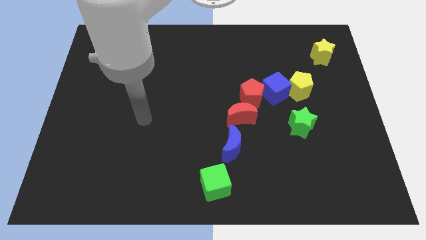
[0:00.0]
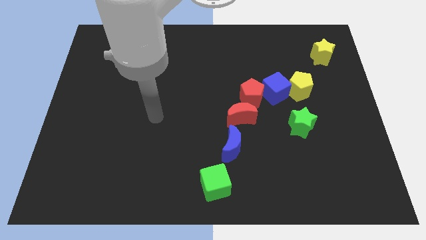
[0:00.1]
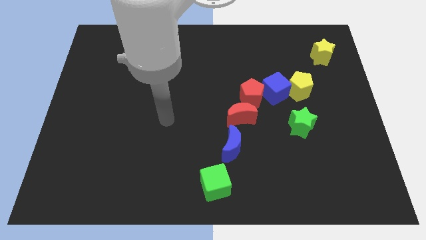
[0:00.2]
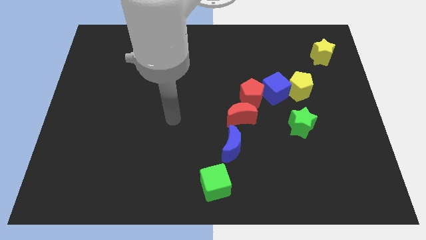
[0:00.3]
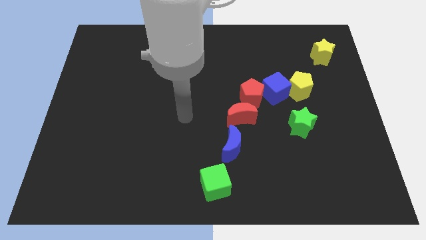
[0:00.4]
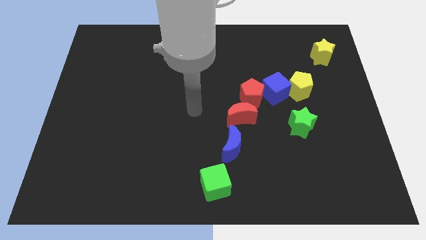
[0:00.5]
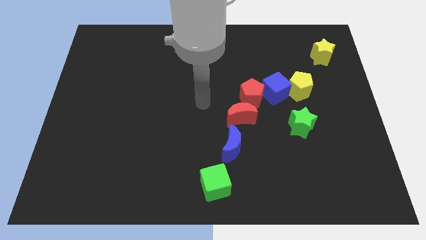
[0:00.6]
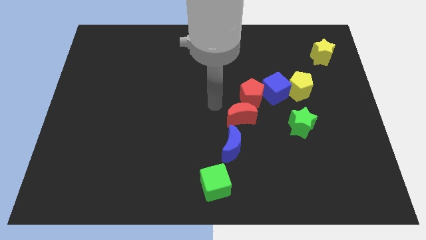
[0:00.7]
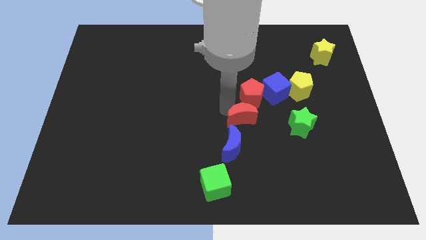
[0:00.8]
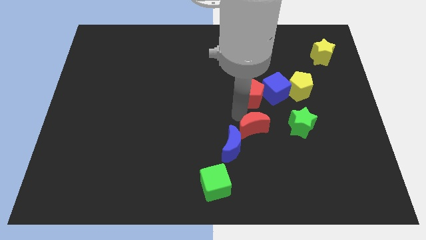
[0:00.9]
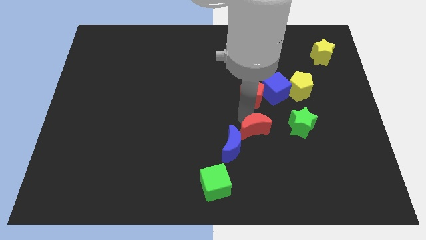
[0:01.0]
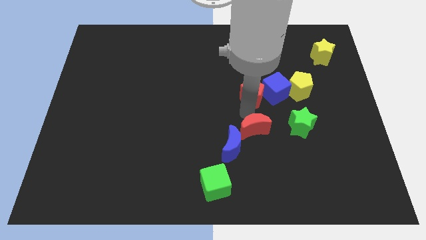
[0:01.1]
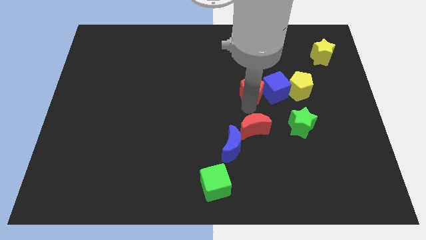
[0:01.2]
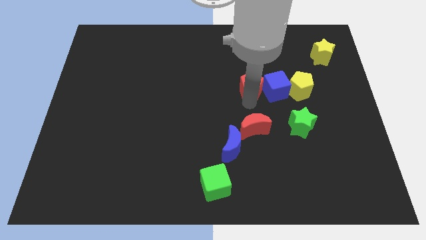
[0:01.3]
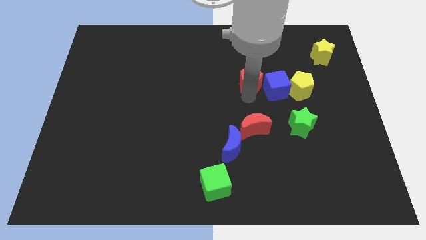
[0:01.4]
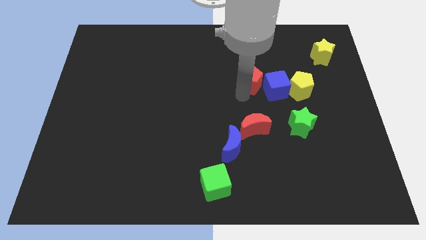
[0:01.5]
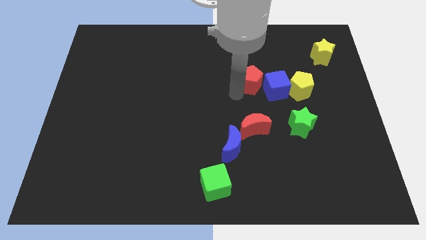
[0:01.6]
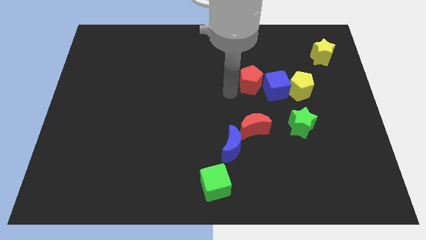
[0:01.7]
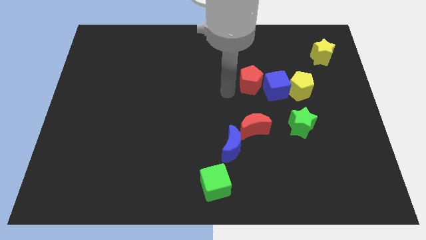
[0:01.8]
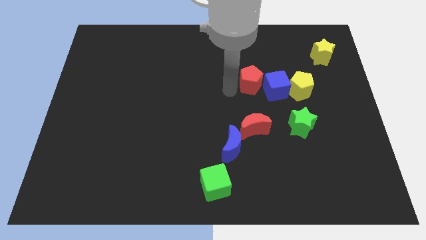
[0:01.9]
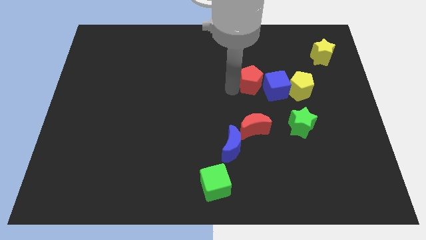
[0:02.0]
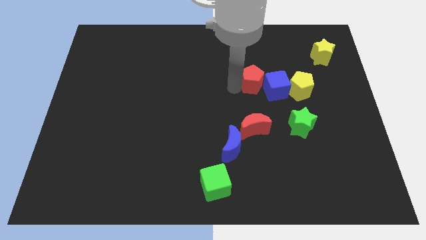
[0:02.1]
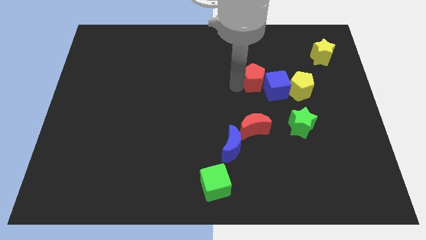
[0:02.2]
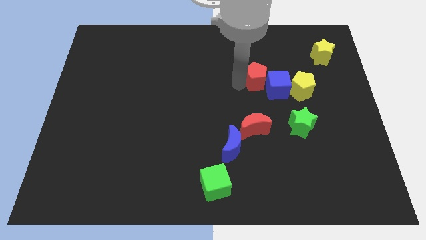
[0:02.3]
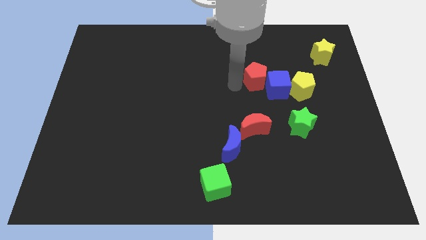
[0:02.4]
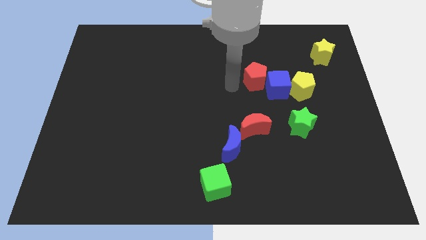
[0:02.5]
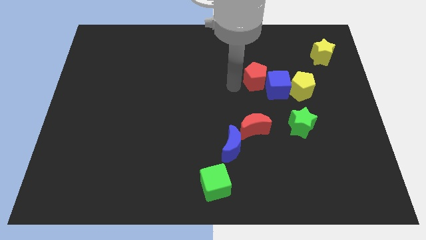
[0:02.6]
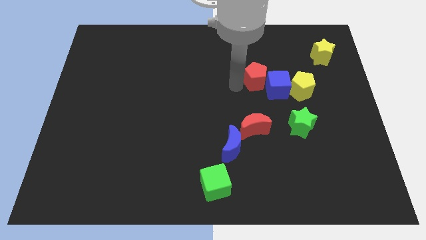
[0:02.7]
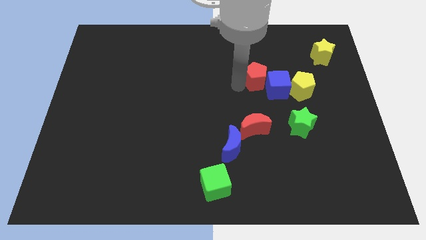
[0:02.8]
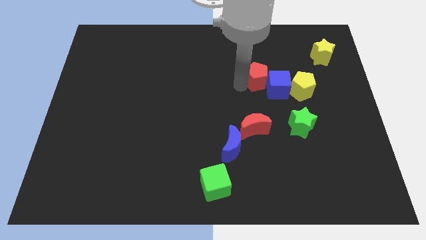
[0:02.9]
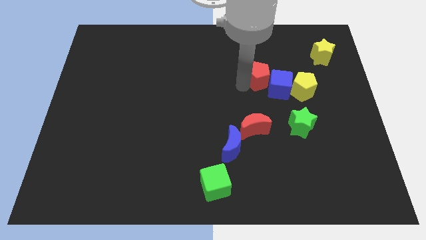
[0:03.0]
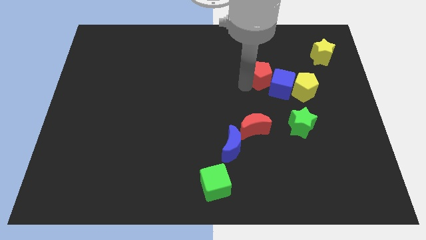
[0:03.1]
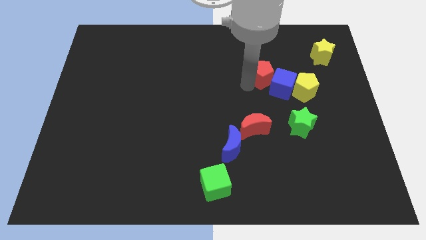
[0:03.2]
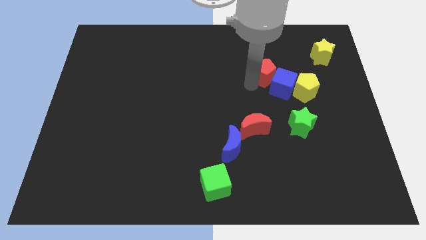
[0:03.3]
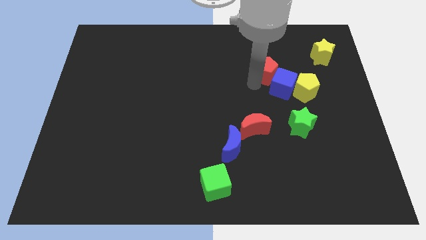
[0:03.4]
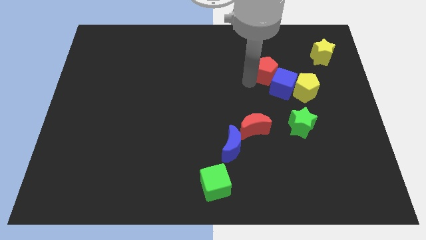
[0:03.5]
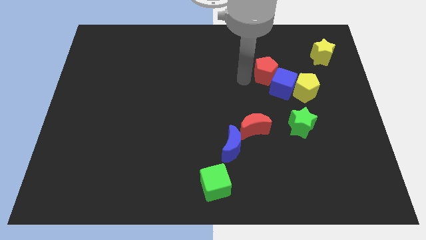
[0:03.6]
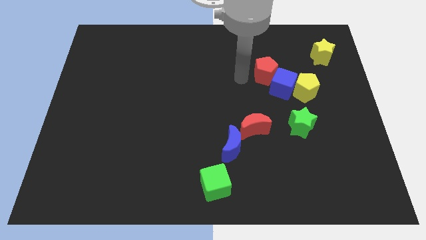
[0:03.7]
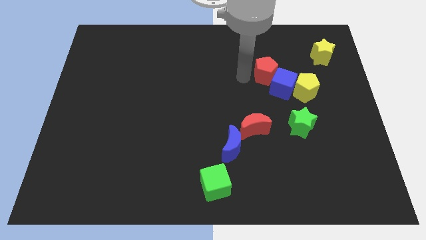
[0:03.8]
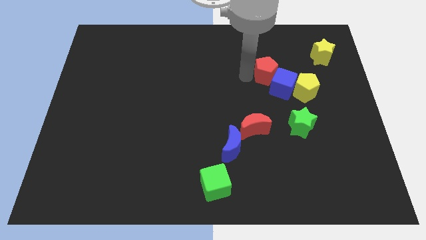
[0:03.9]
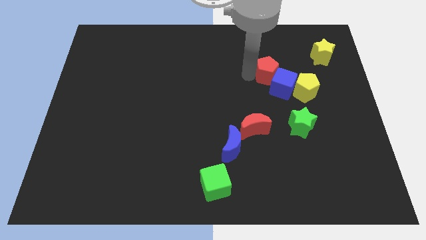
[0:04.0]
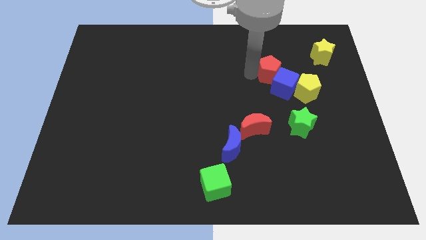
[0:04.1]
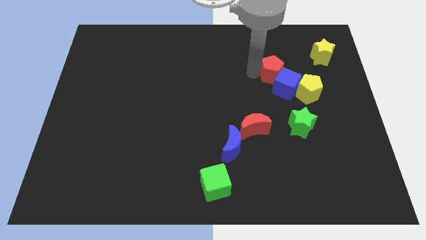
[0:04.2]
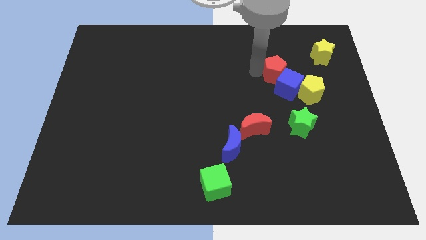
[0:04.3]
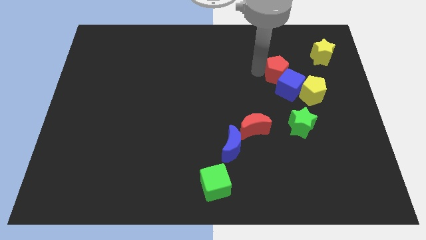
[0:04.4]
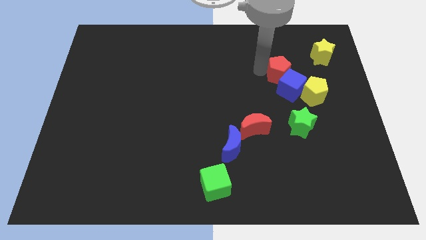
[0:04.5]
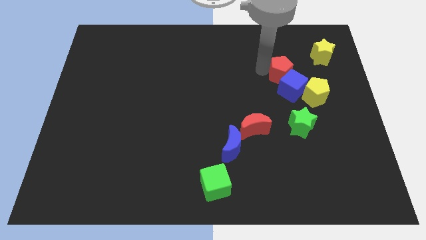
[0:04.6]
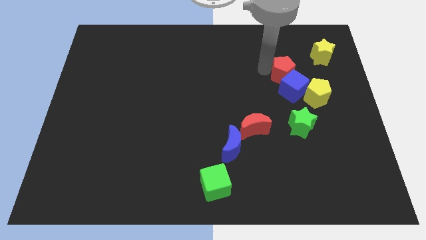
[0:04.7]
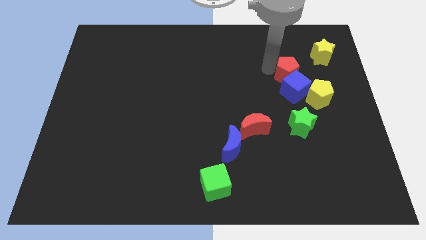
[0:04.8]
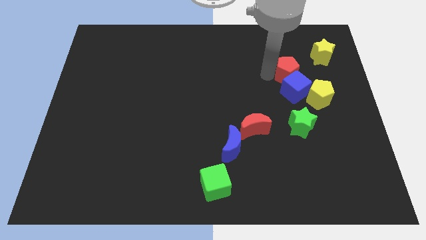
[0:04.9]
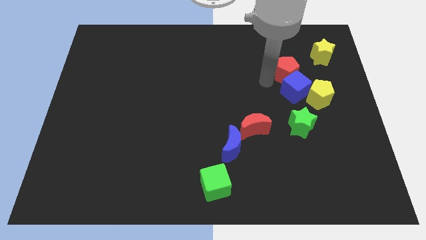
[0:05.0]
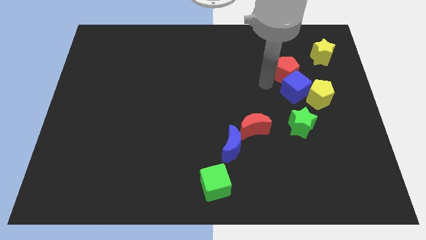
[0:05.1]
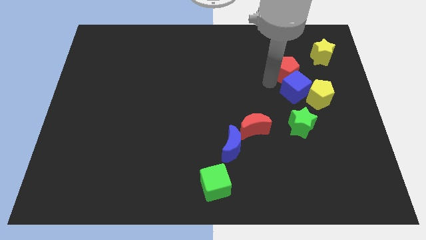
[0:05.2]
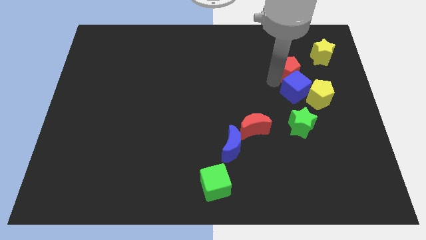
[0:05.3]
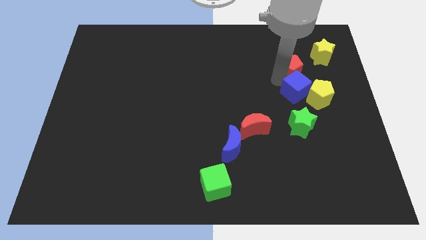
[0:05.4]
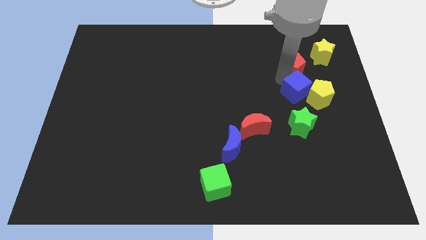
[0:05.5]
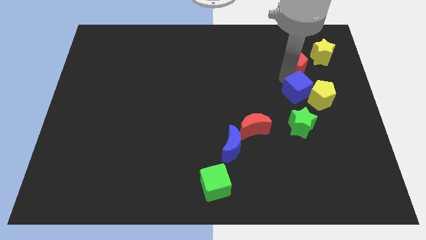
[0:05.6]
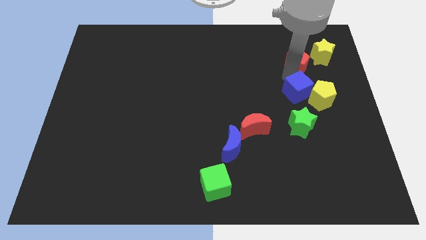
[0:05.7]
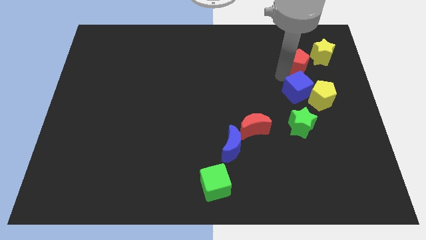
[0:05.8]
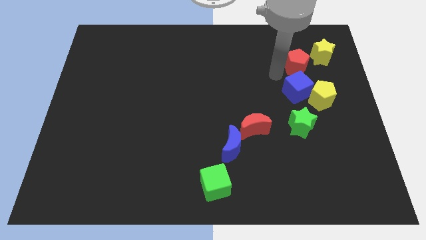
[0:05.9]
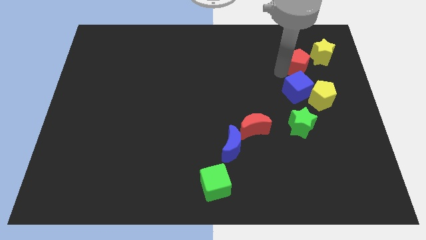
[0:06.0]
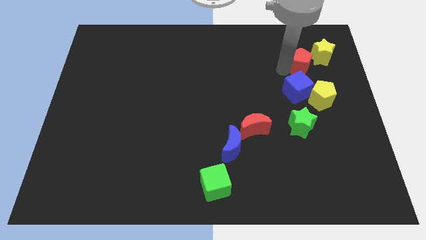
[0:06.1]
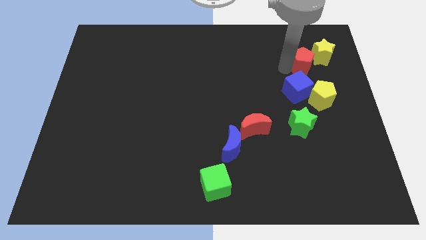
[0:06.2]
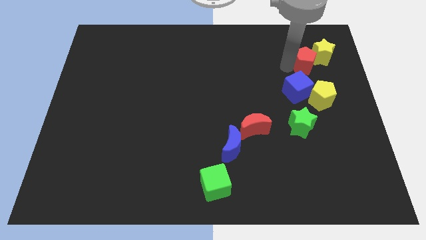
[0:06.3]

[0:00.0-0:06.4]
put the red pentagon to the yellow star
